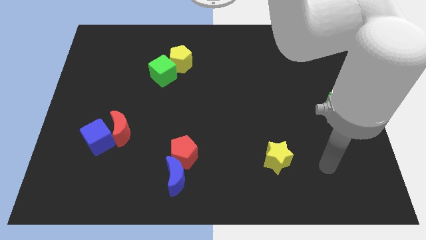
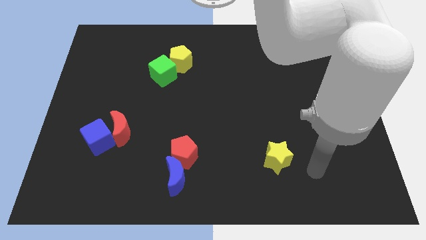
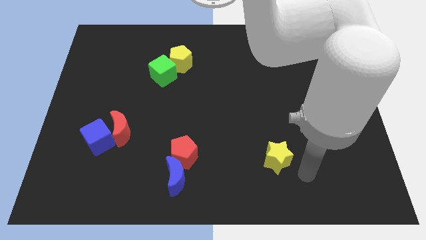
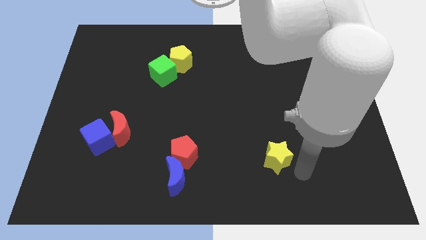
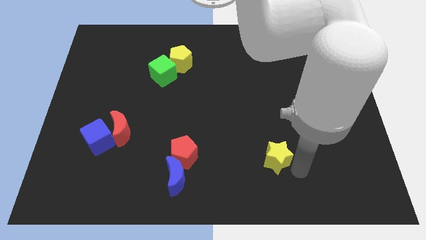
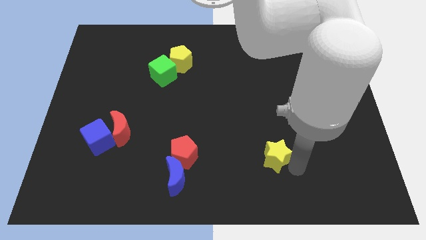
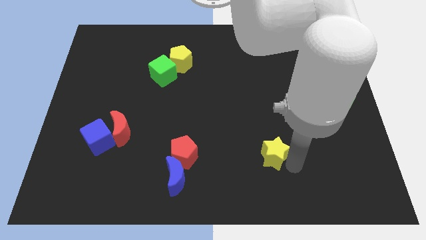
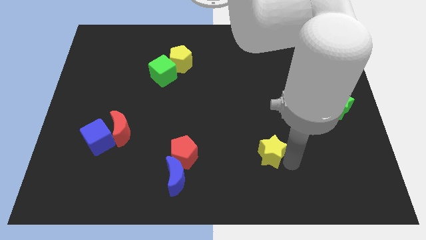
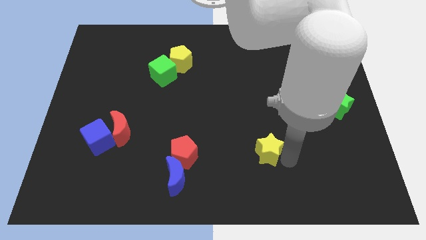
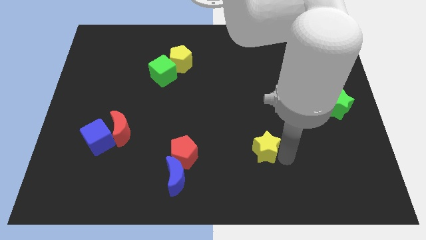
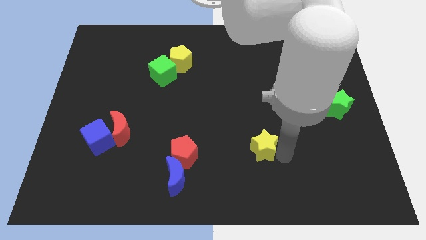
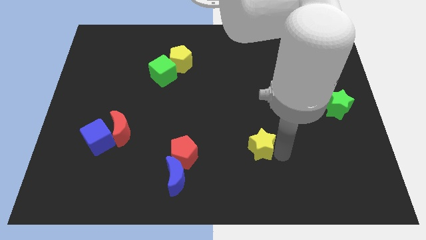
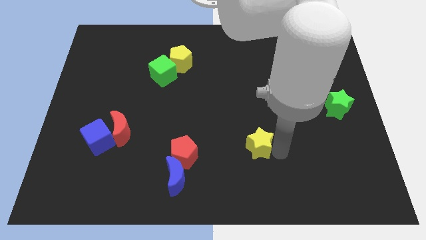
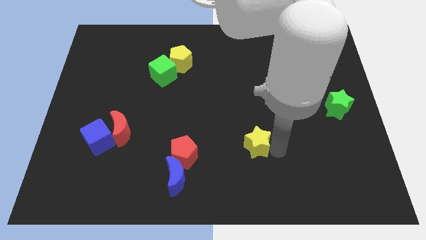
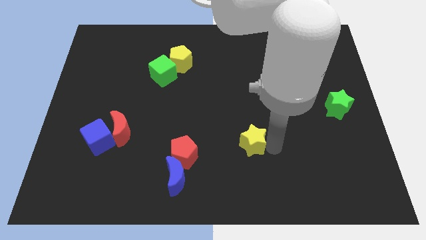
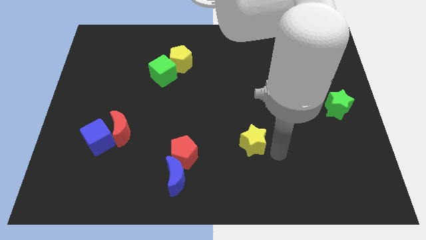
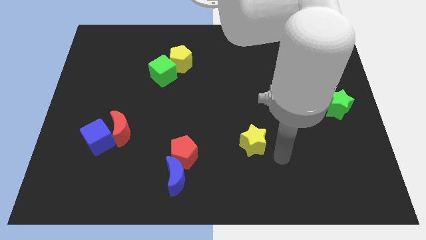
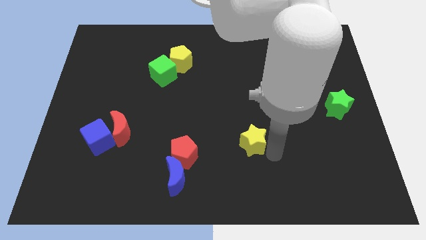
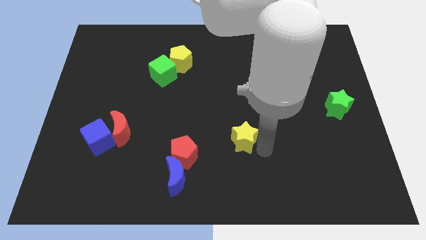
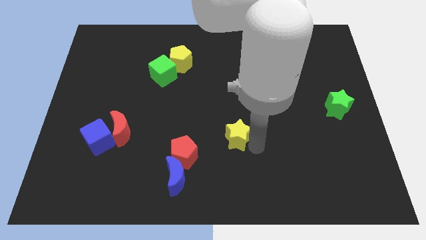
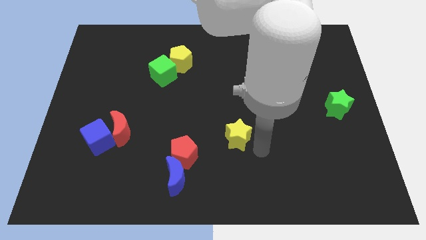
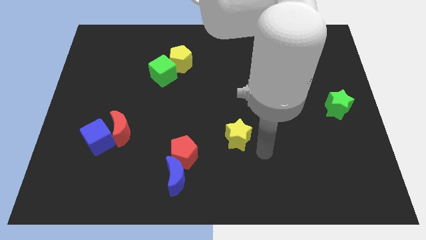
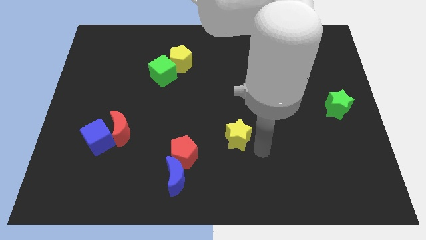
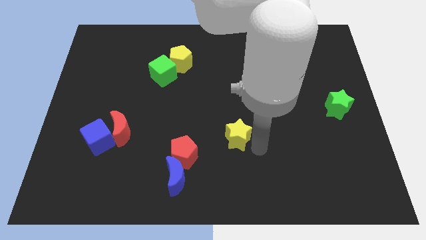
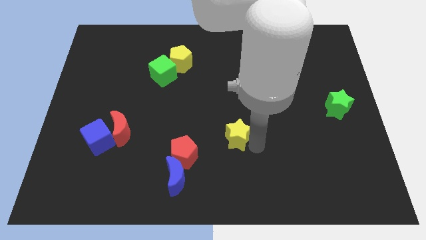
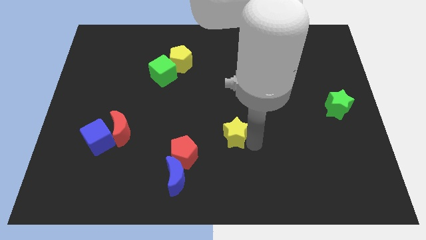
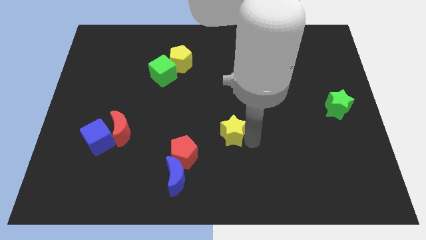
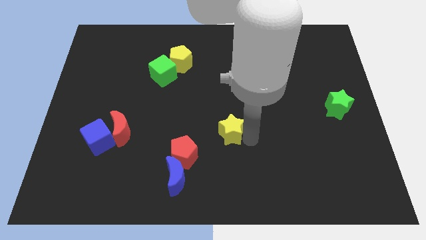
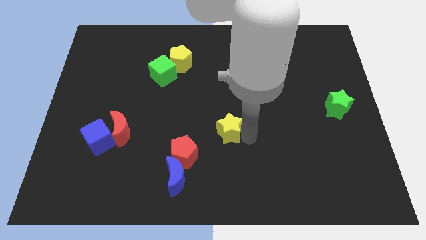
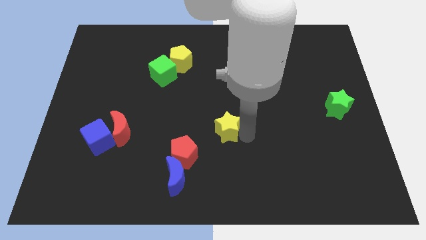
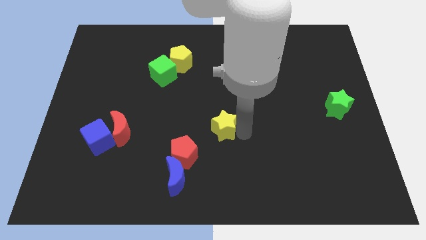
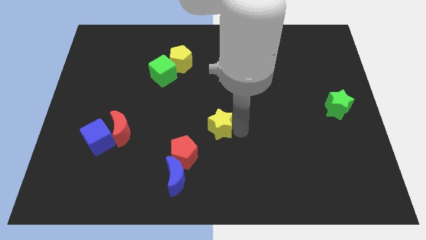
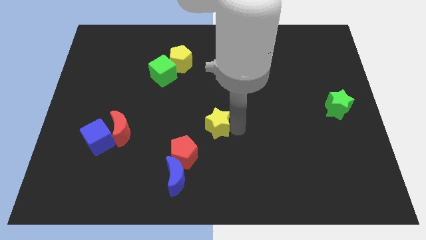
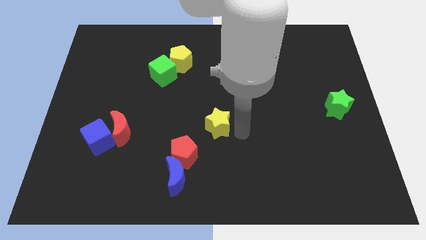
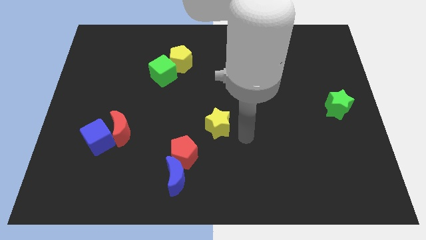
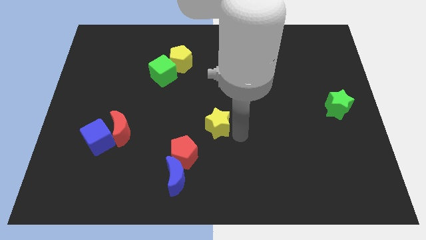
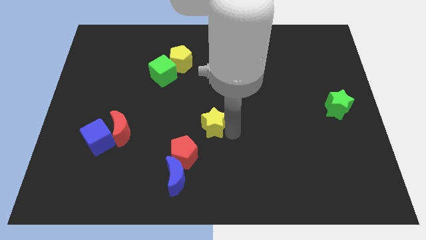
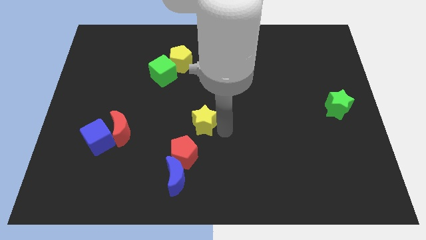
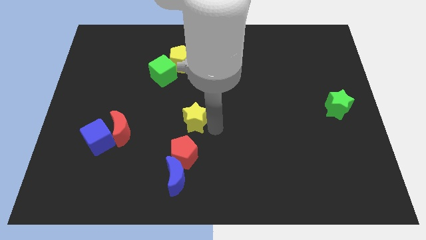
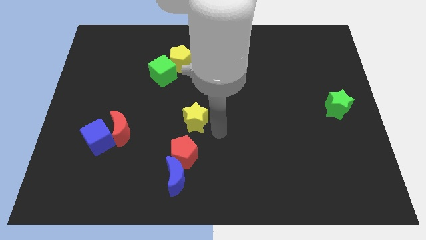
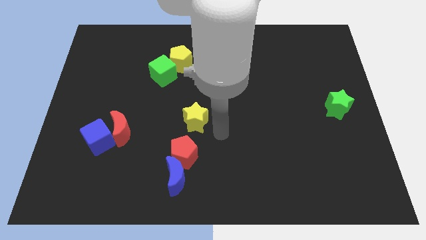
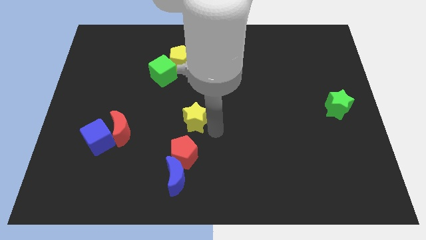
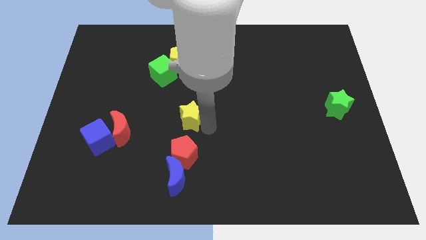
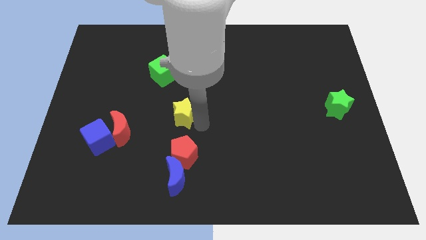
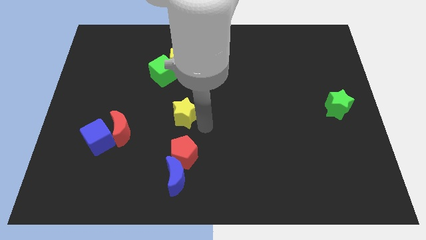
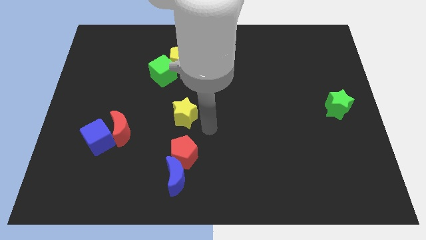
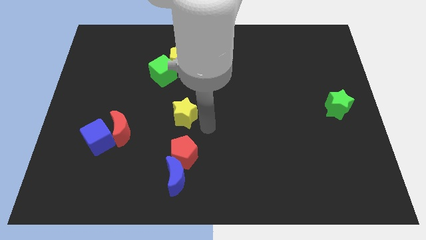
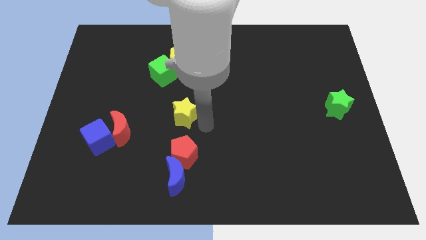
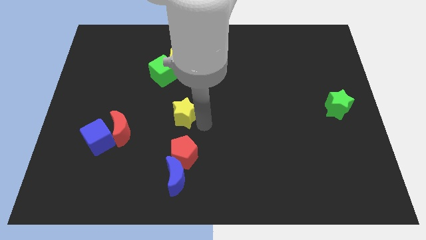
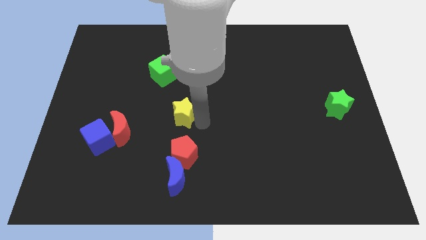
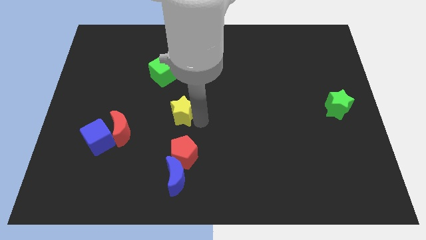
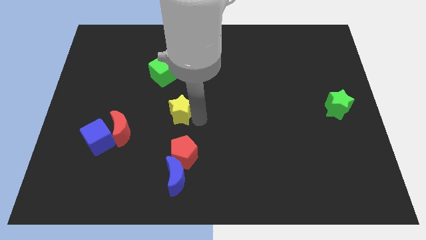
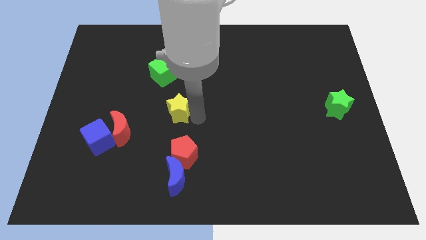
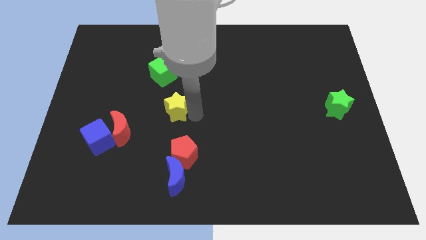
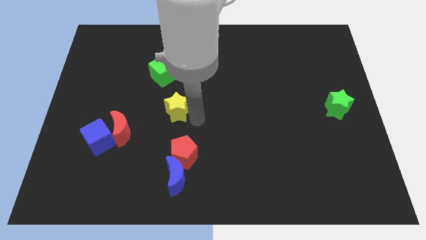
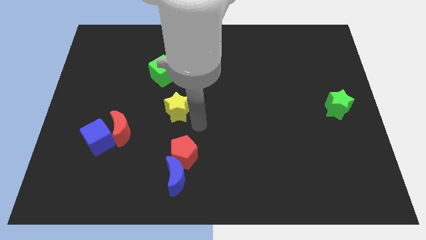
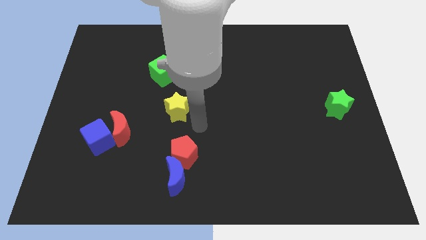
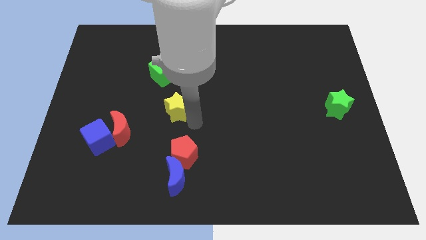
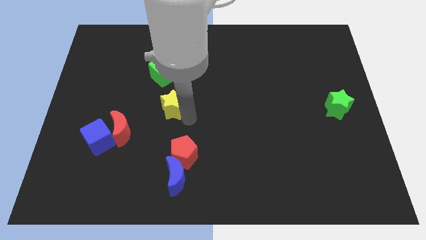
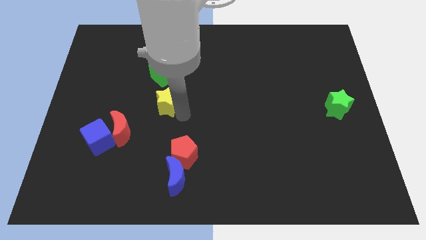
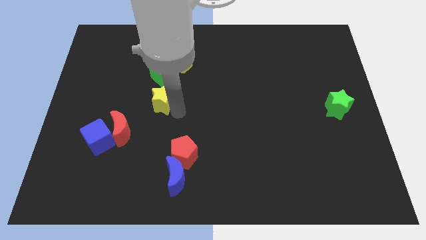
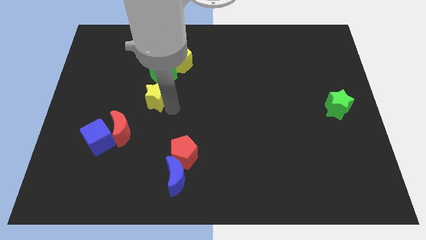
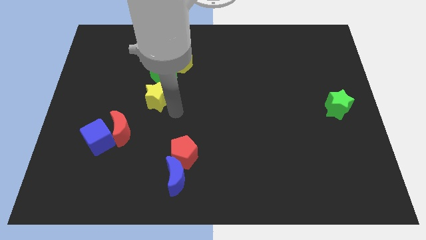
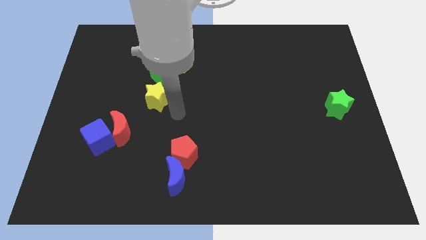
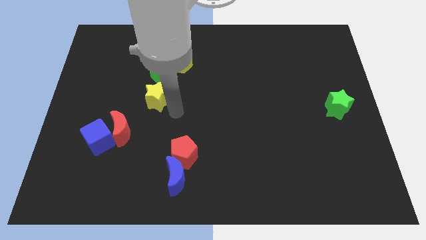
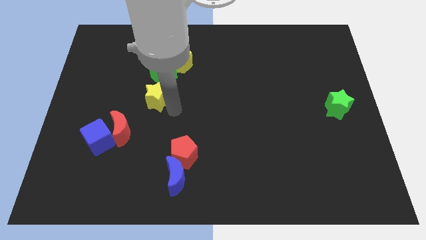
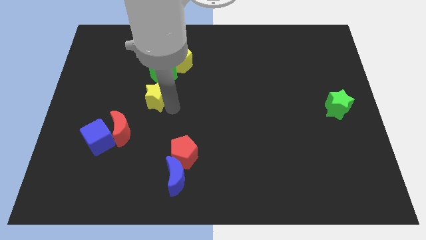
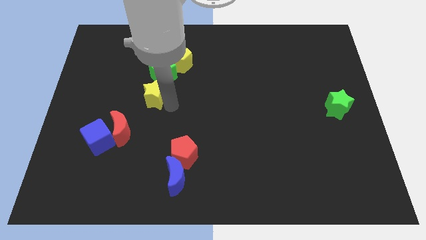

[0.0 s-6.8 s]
slide the yellow star diagonally down and to the left of the green cube

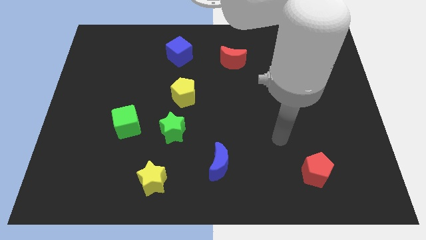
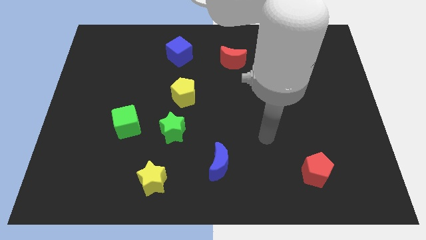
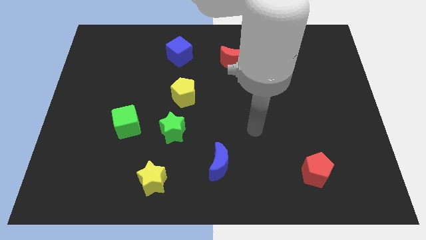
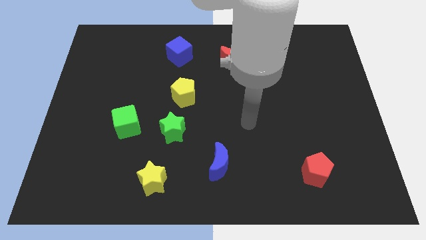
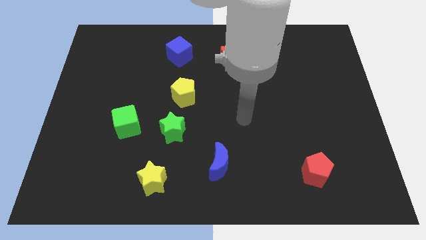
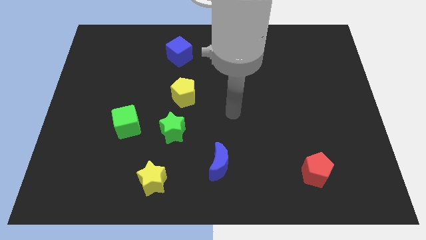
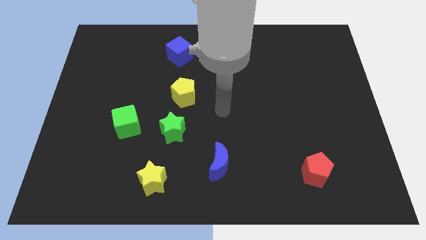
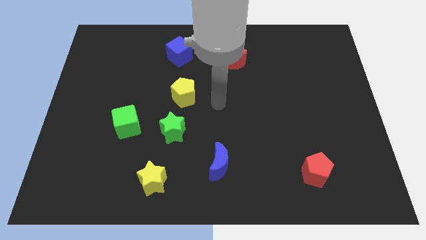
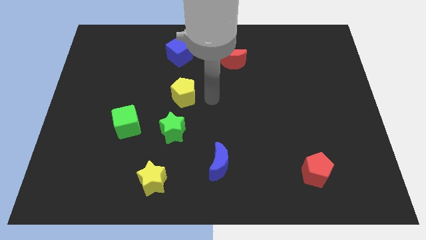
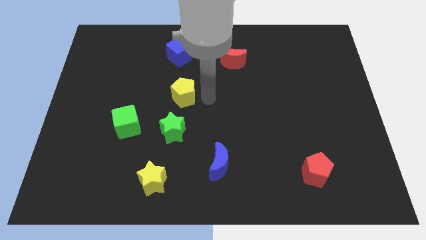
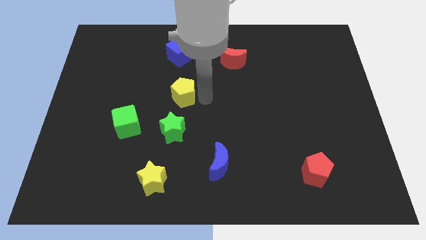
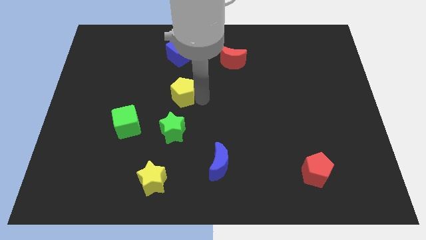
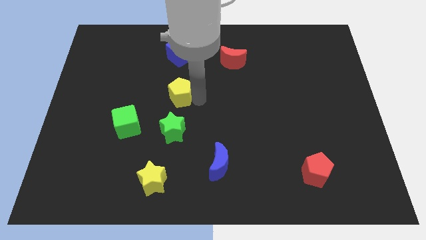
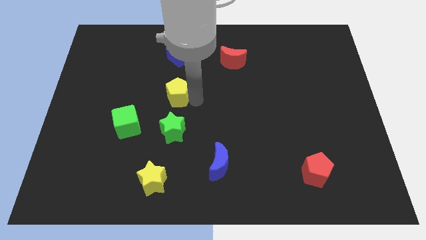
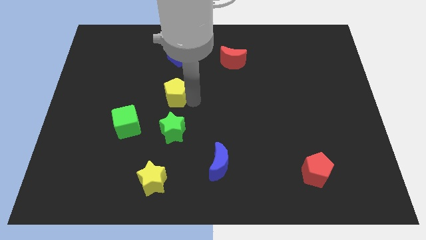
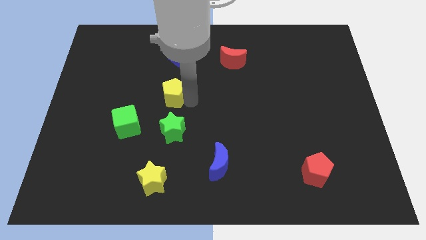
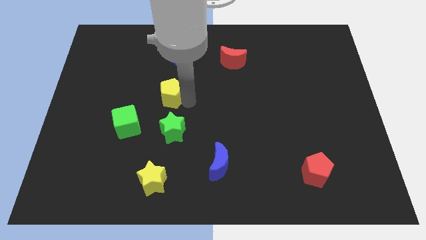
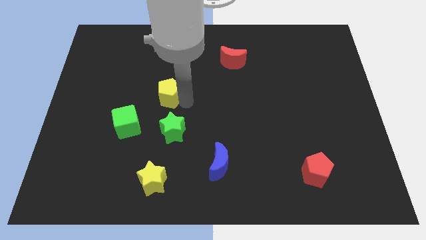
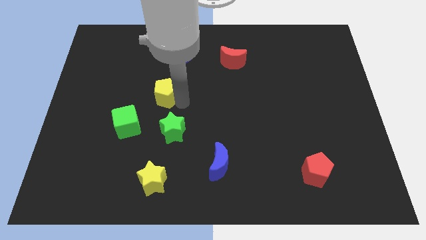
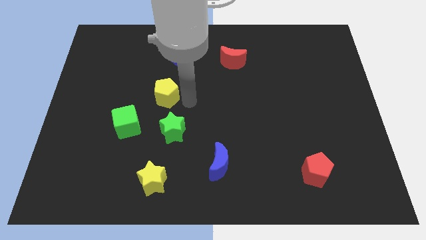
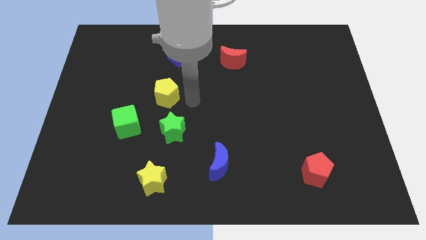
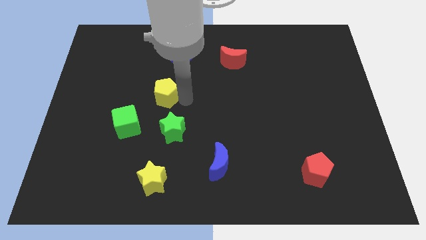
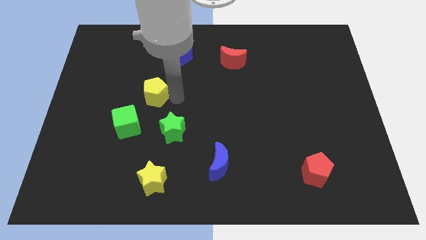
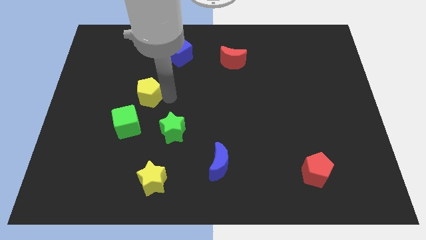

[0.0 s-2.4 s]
push the yellow pentagon above the green cube
